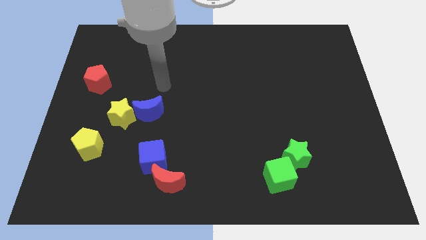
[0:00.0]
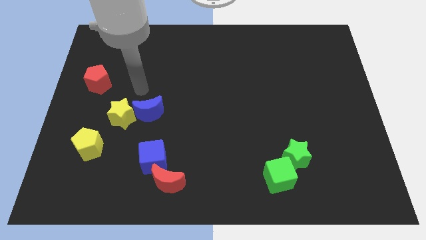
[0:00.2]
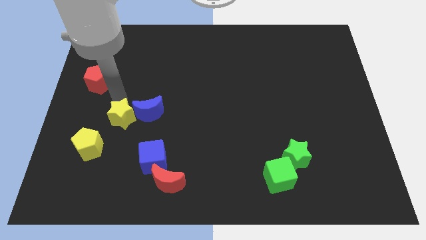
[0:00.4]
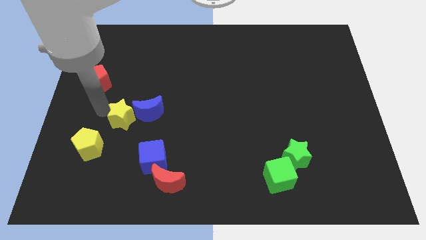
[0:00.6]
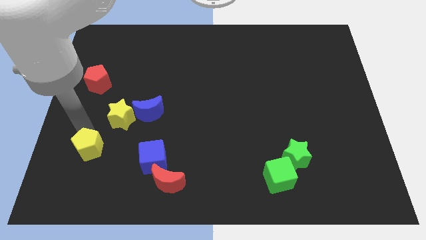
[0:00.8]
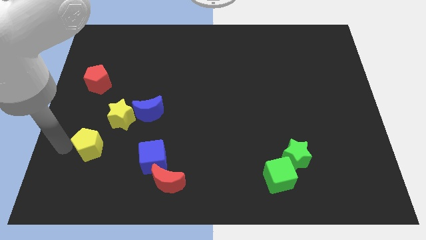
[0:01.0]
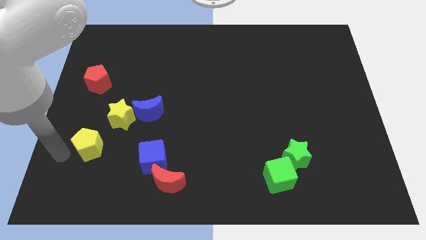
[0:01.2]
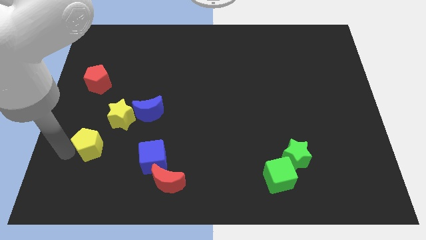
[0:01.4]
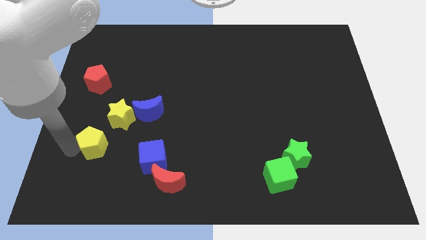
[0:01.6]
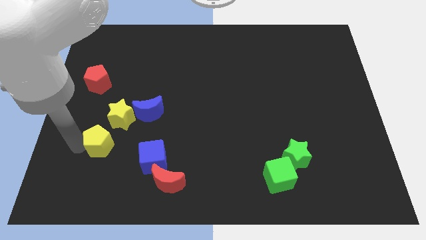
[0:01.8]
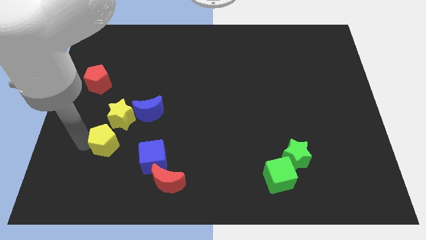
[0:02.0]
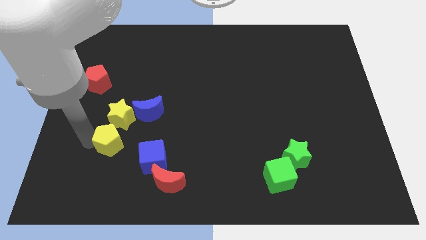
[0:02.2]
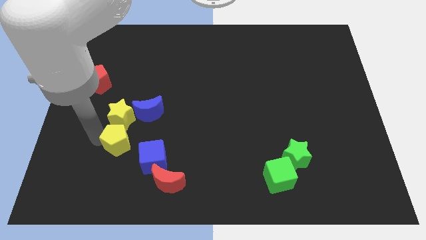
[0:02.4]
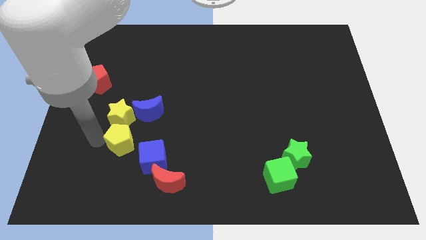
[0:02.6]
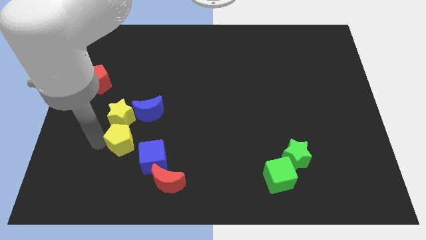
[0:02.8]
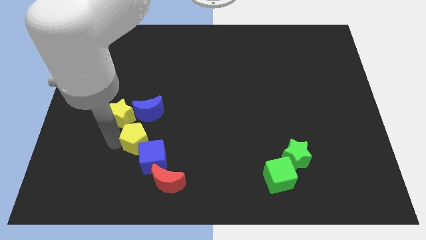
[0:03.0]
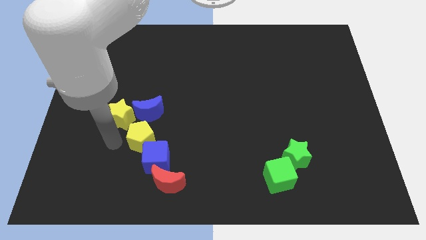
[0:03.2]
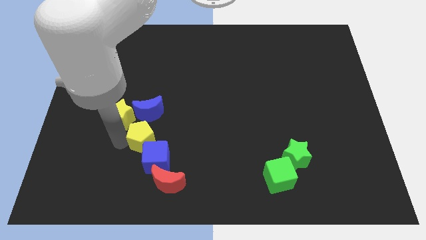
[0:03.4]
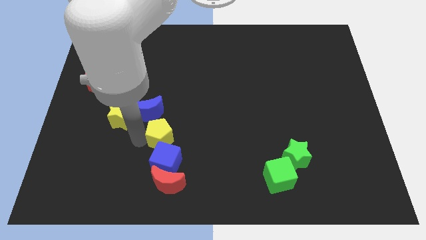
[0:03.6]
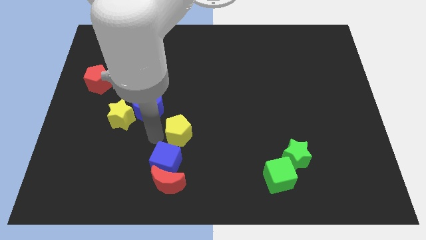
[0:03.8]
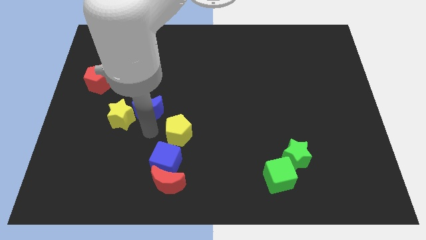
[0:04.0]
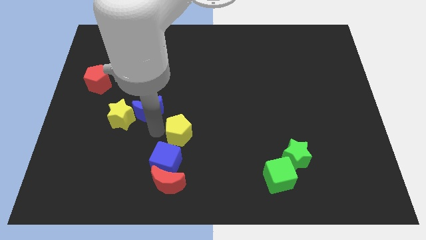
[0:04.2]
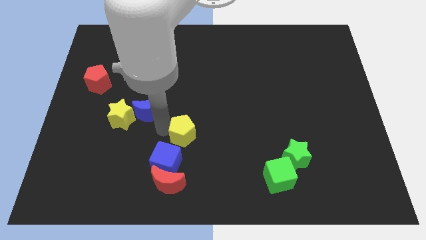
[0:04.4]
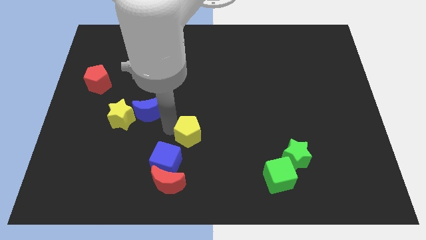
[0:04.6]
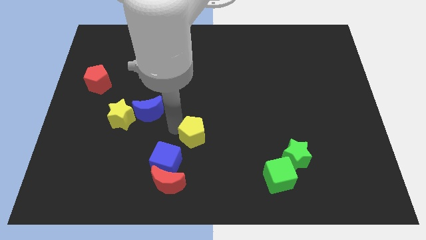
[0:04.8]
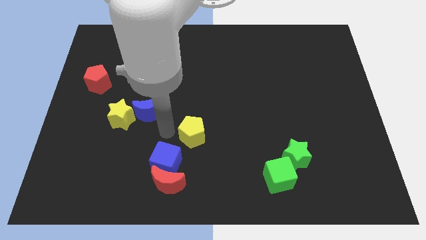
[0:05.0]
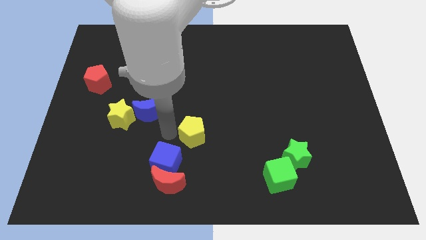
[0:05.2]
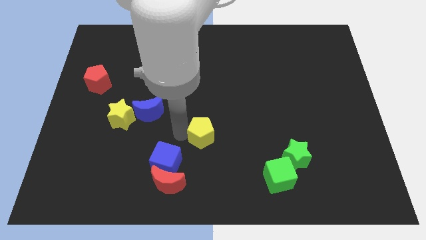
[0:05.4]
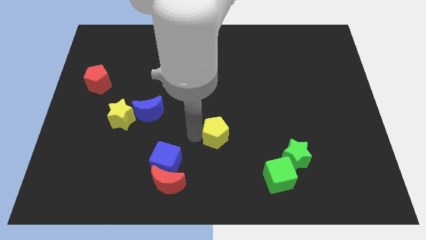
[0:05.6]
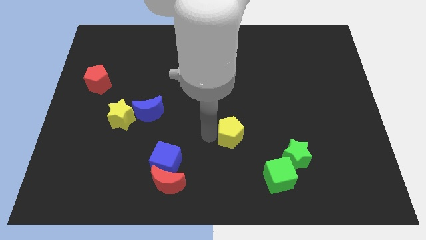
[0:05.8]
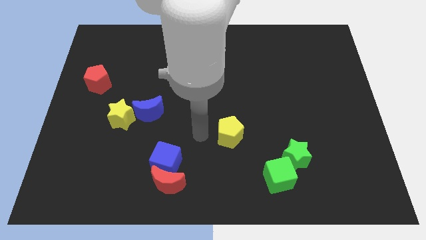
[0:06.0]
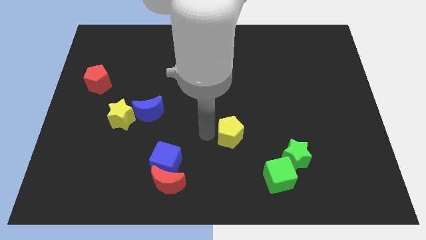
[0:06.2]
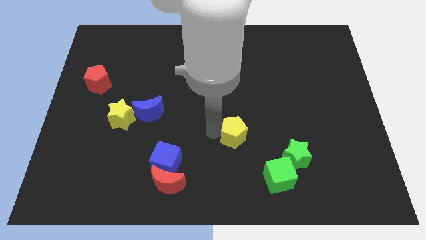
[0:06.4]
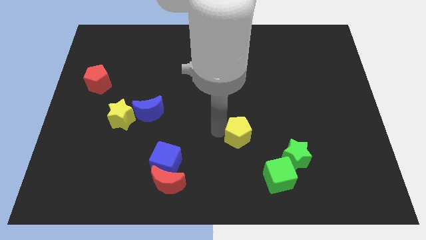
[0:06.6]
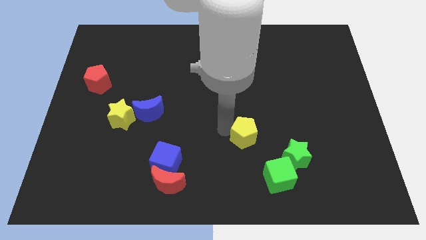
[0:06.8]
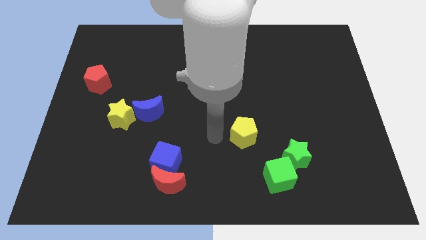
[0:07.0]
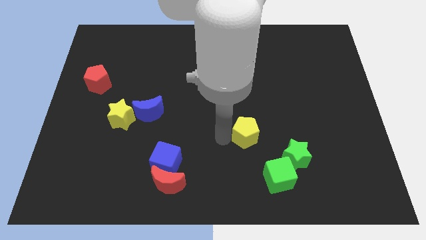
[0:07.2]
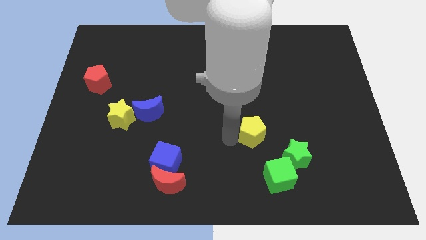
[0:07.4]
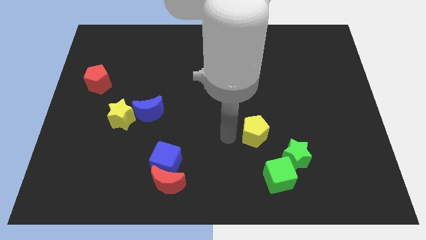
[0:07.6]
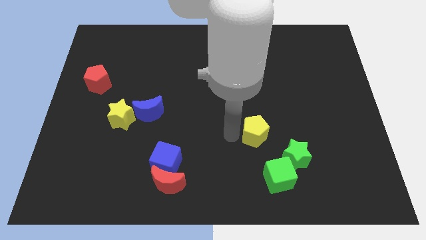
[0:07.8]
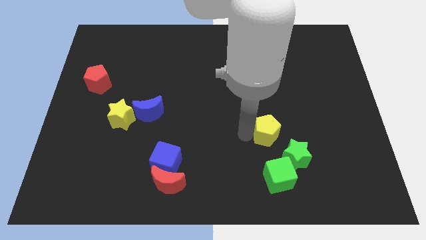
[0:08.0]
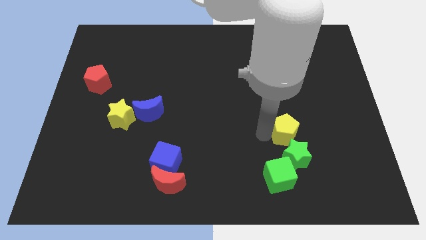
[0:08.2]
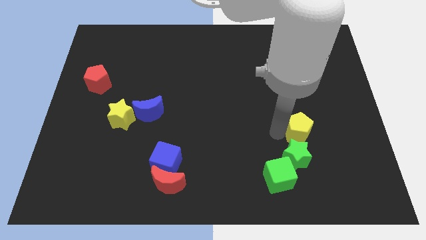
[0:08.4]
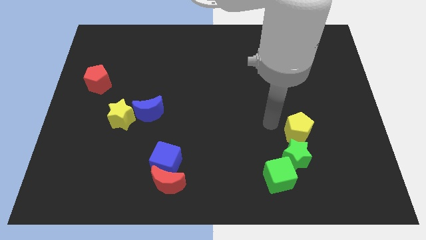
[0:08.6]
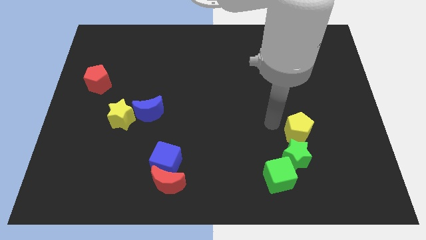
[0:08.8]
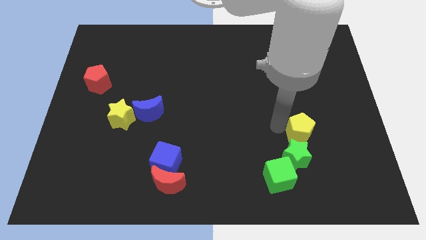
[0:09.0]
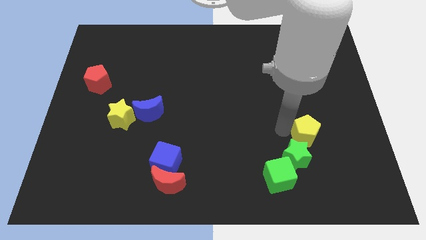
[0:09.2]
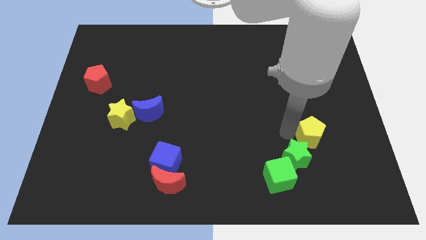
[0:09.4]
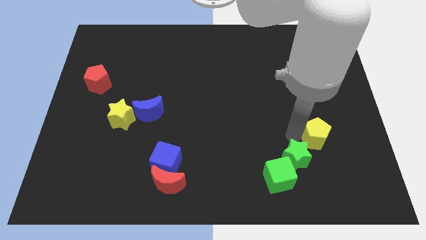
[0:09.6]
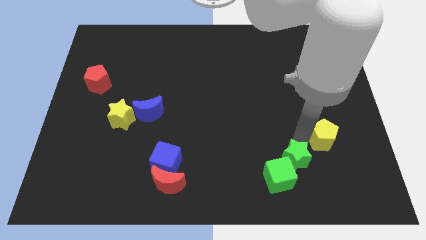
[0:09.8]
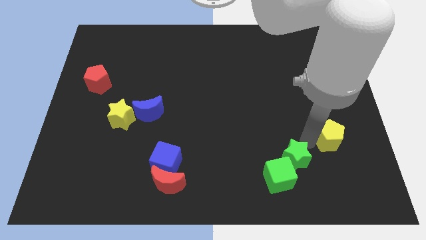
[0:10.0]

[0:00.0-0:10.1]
slide the yellow pentagon to the right of the green star

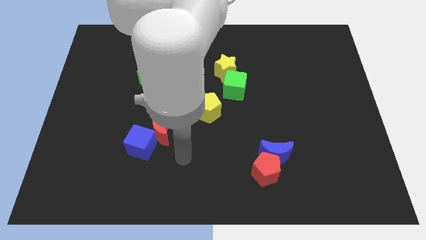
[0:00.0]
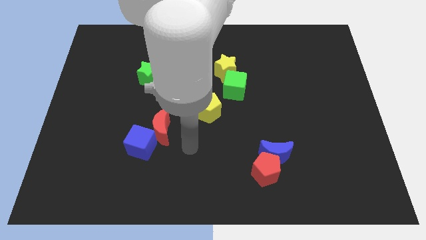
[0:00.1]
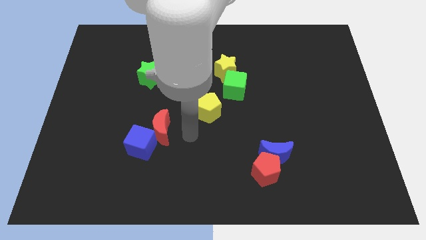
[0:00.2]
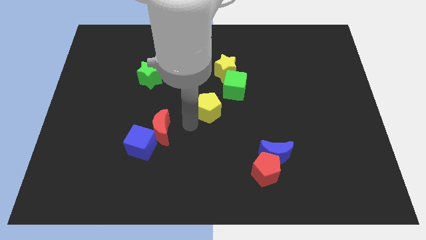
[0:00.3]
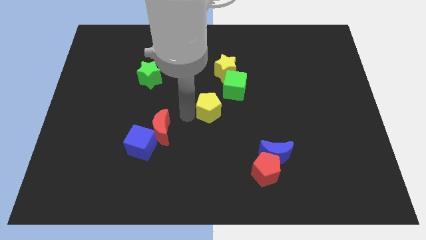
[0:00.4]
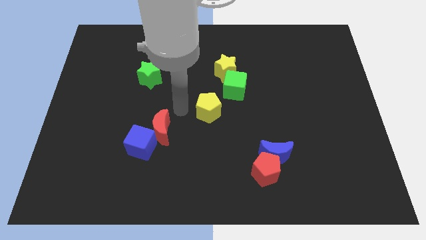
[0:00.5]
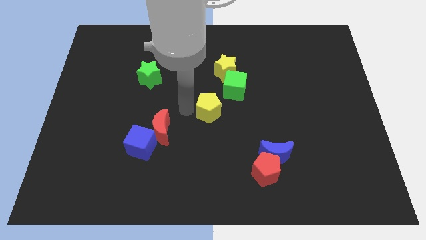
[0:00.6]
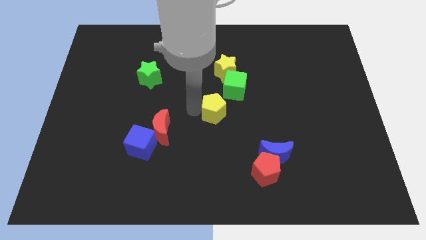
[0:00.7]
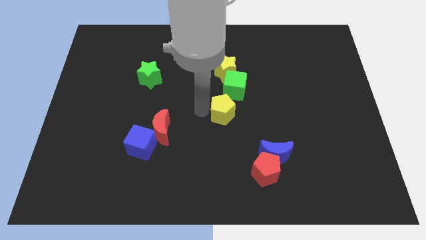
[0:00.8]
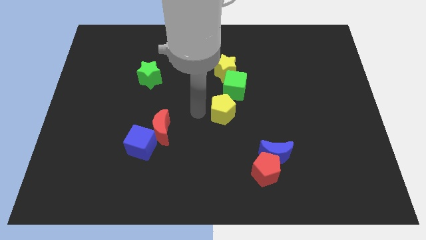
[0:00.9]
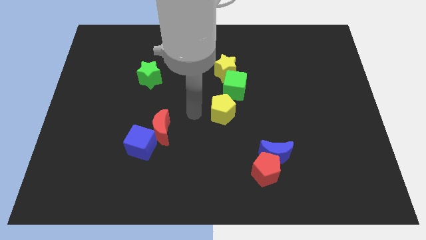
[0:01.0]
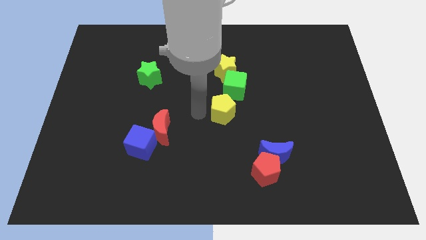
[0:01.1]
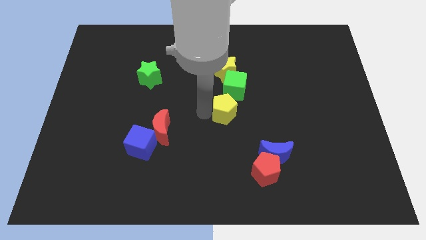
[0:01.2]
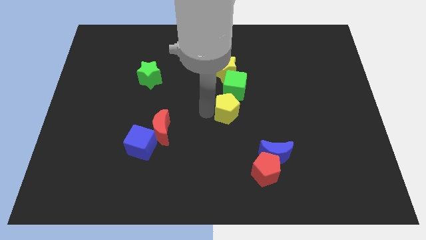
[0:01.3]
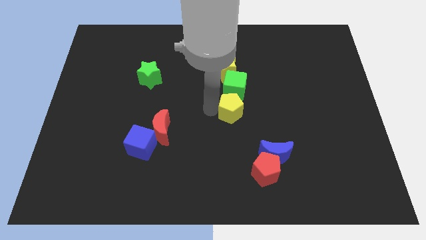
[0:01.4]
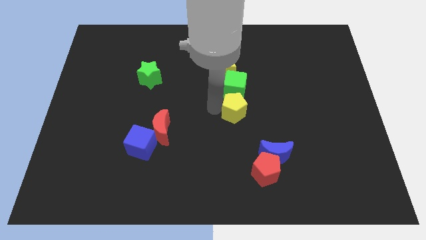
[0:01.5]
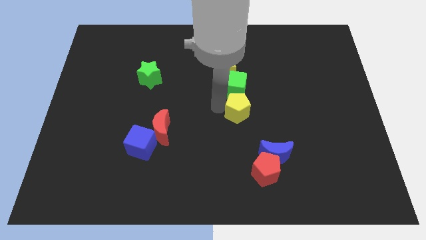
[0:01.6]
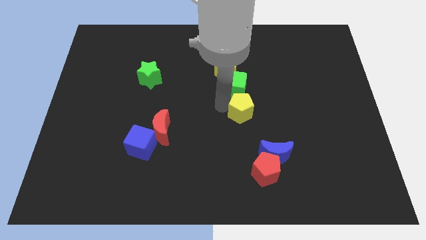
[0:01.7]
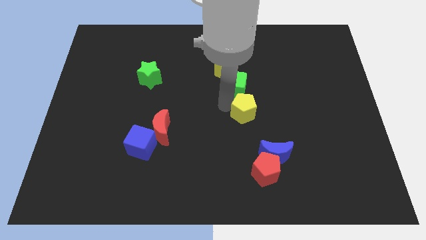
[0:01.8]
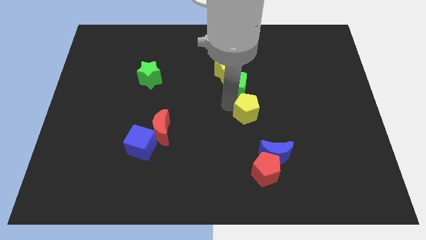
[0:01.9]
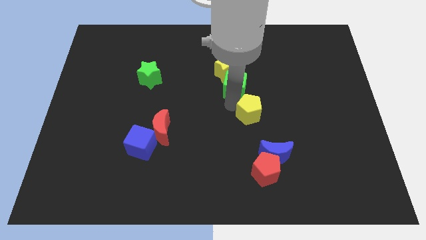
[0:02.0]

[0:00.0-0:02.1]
put the yellow pentagon above the blue moon
